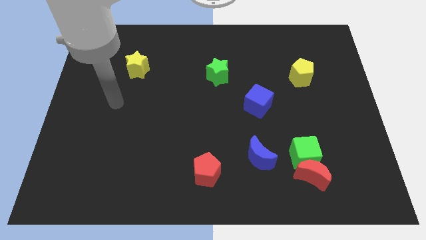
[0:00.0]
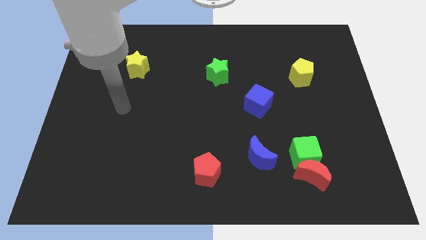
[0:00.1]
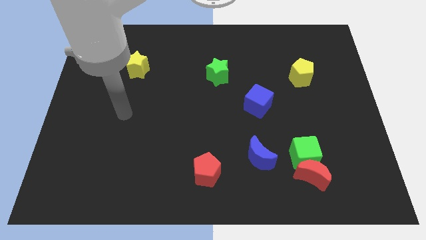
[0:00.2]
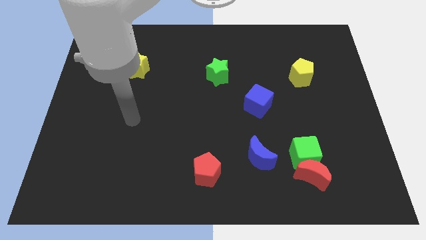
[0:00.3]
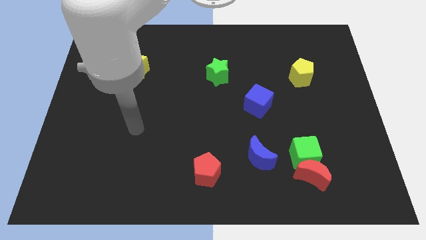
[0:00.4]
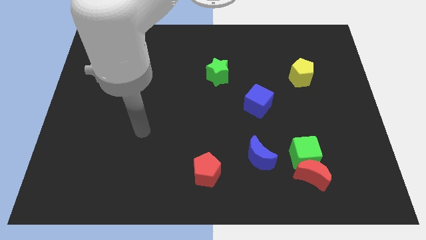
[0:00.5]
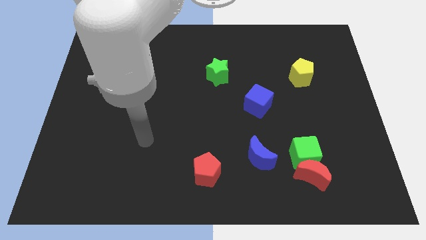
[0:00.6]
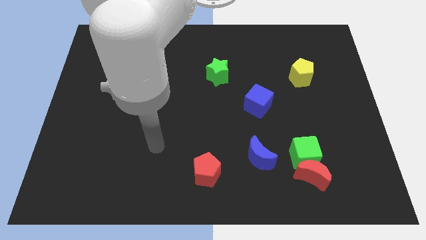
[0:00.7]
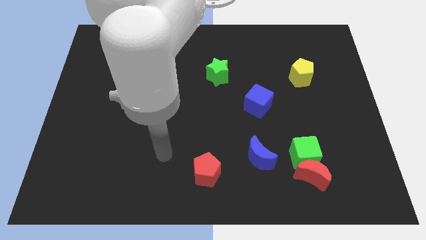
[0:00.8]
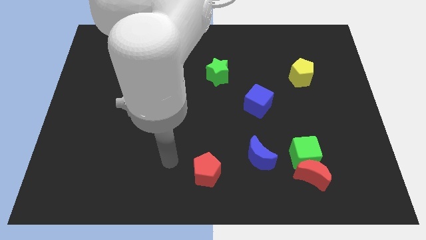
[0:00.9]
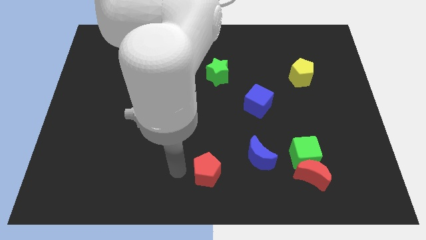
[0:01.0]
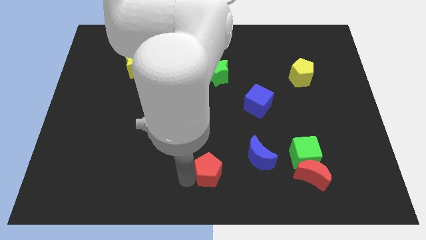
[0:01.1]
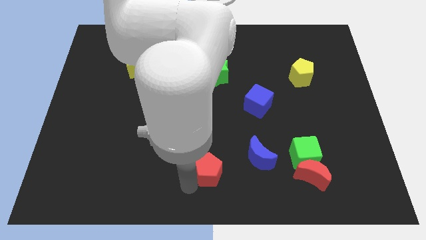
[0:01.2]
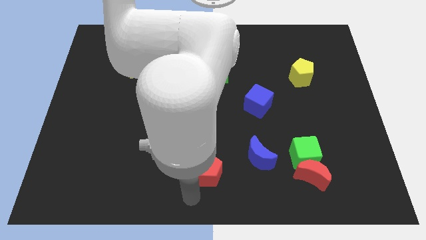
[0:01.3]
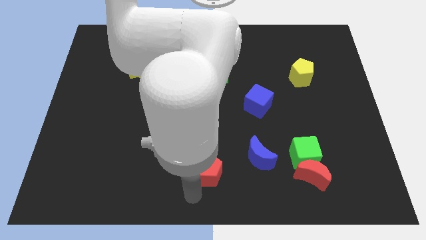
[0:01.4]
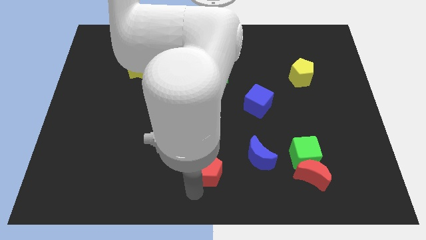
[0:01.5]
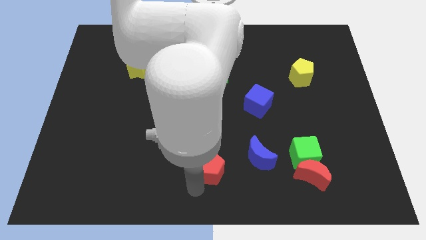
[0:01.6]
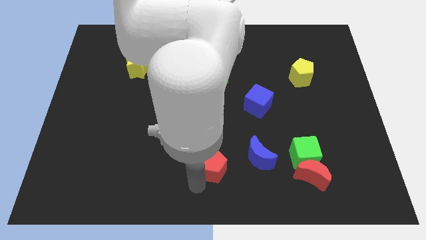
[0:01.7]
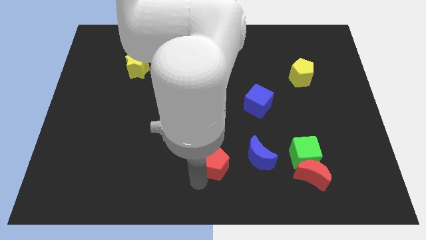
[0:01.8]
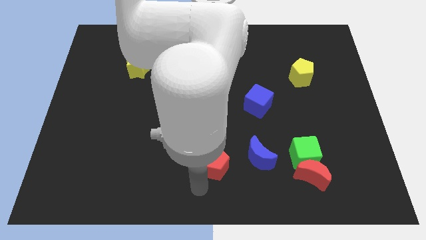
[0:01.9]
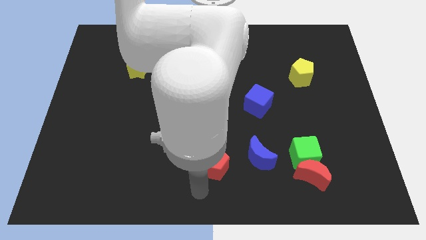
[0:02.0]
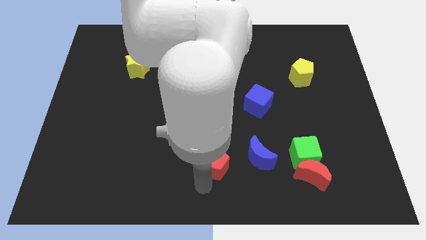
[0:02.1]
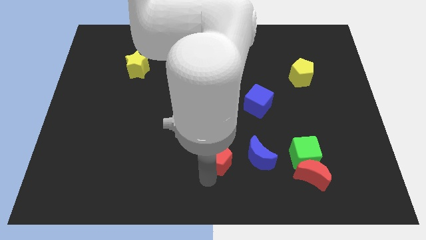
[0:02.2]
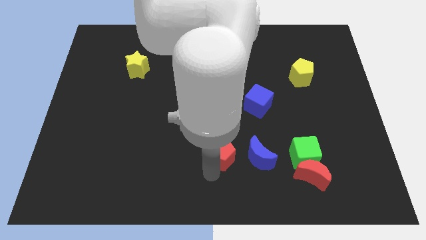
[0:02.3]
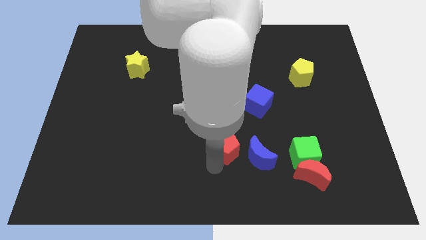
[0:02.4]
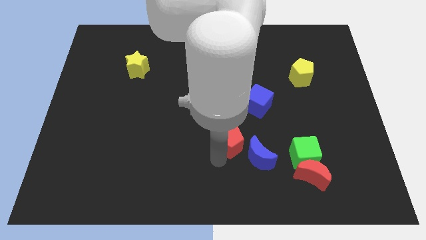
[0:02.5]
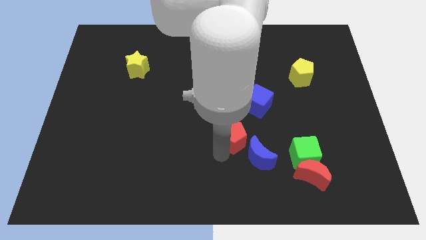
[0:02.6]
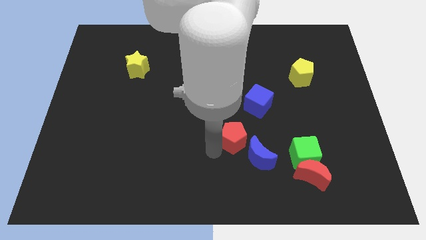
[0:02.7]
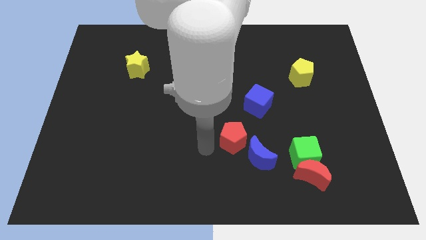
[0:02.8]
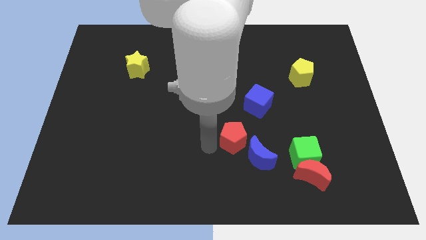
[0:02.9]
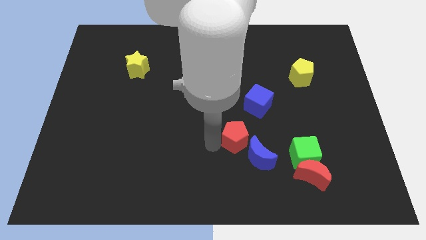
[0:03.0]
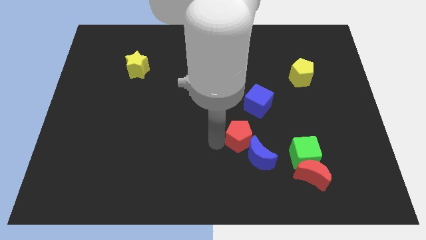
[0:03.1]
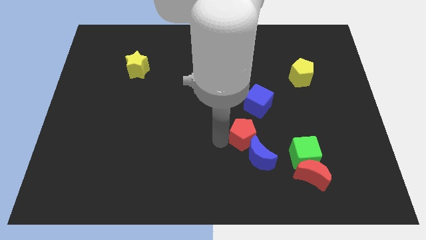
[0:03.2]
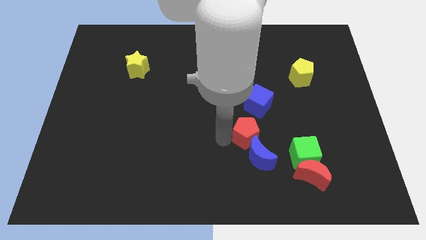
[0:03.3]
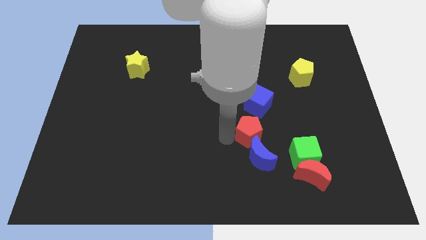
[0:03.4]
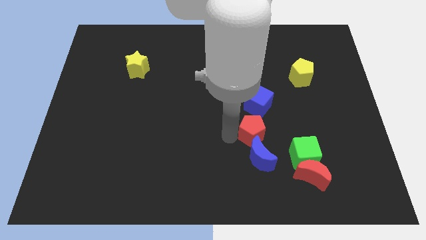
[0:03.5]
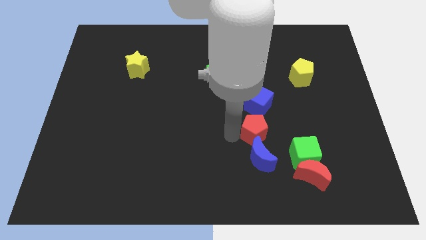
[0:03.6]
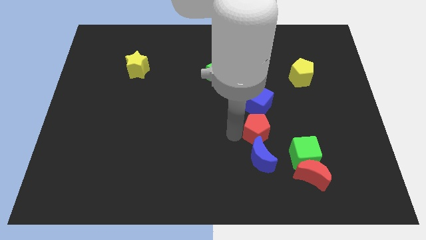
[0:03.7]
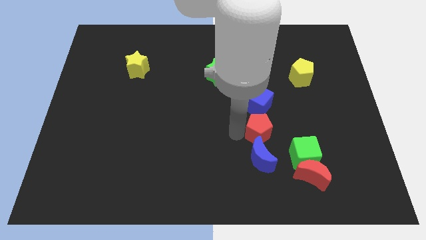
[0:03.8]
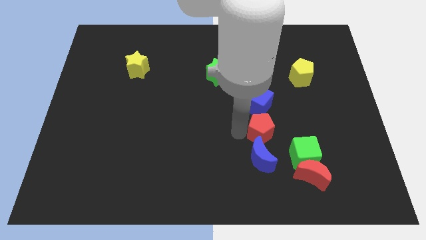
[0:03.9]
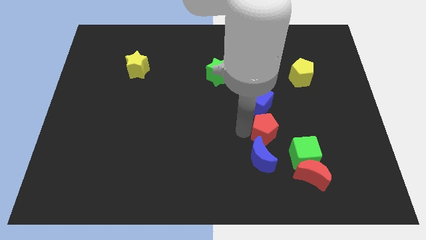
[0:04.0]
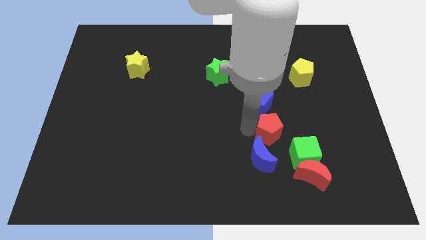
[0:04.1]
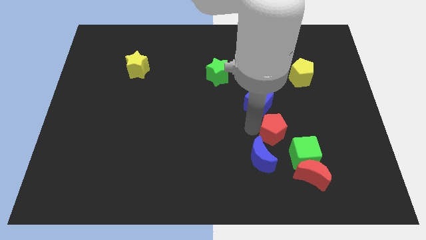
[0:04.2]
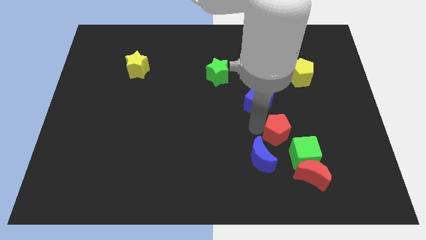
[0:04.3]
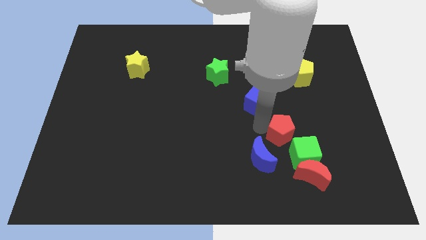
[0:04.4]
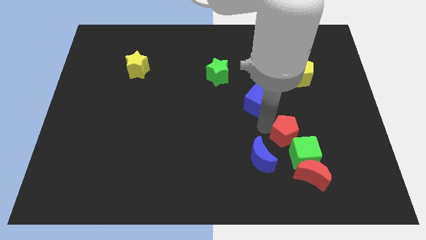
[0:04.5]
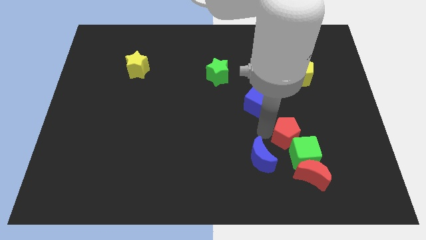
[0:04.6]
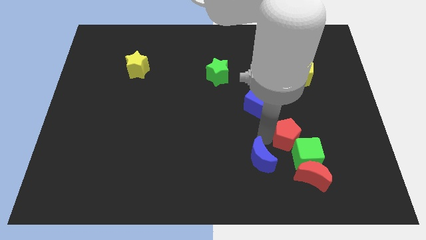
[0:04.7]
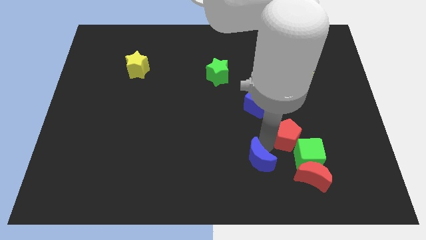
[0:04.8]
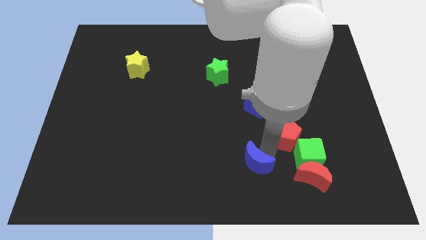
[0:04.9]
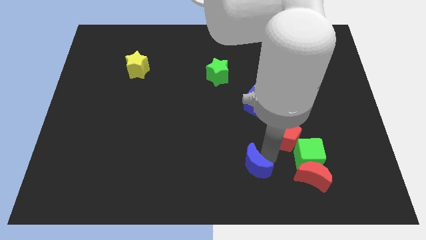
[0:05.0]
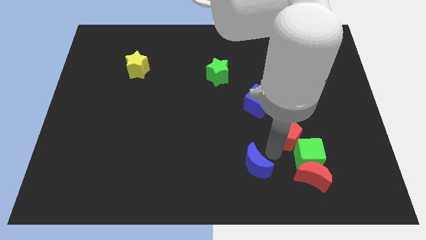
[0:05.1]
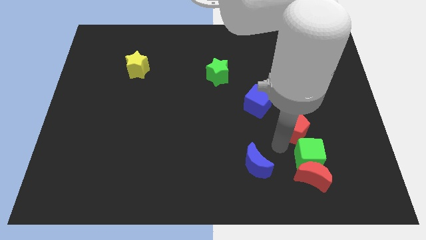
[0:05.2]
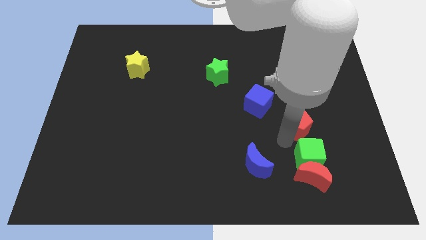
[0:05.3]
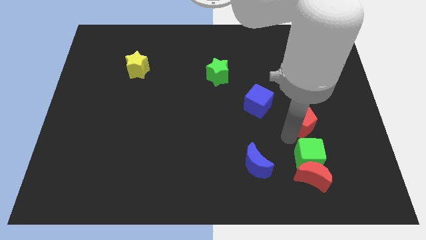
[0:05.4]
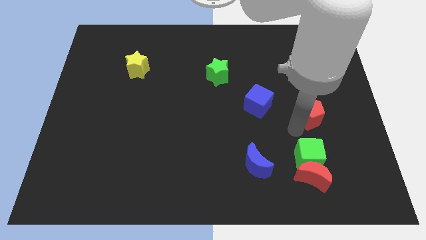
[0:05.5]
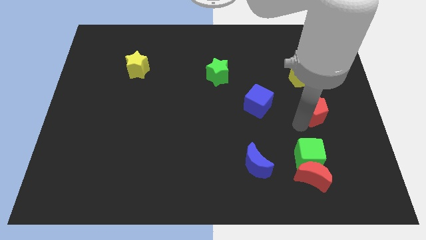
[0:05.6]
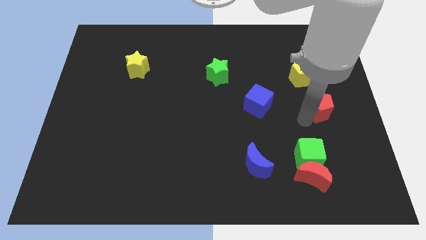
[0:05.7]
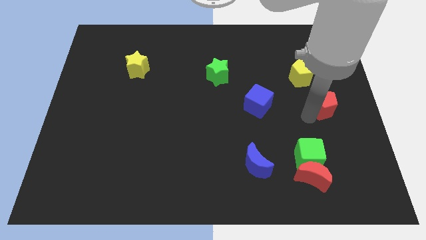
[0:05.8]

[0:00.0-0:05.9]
move the red pentagon to the right side of the board

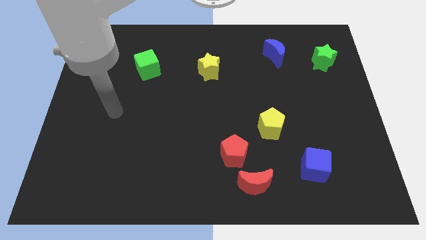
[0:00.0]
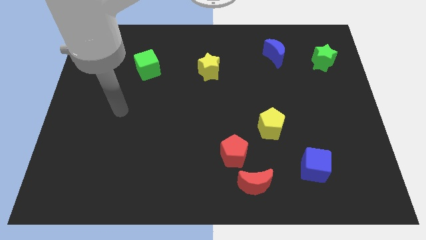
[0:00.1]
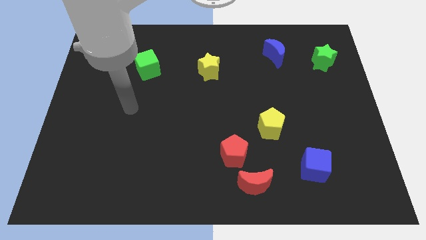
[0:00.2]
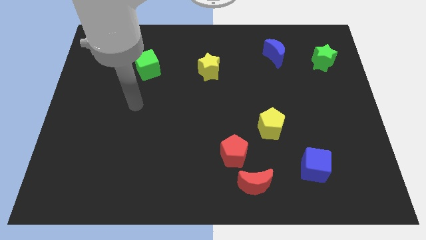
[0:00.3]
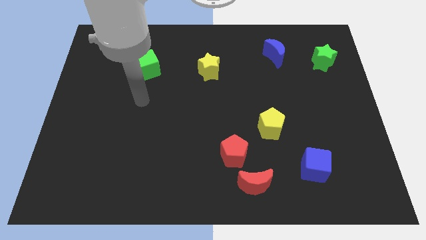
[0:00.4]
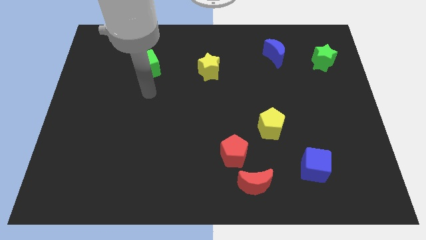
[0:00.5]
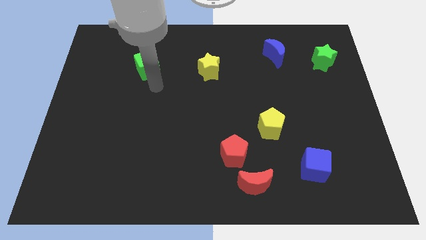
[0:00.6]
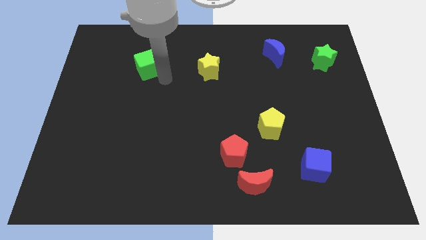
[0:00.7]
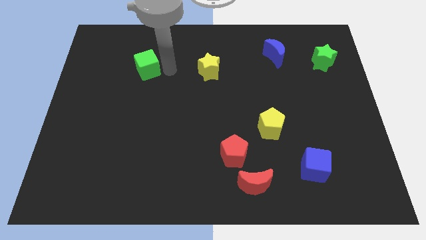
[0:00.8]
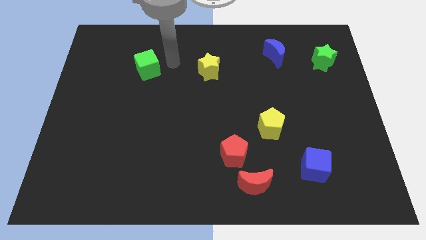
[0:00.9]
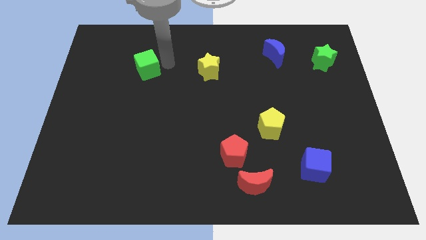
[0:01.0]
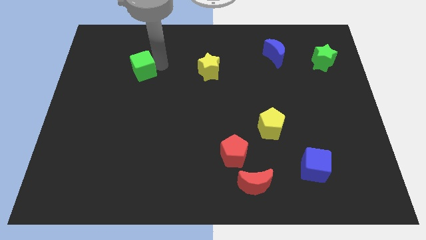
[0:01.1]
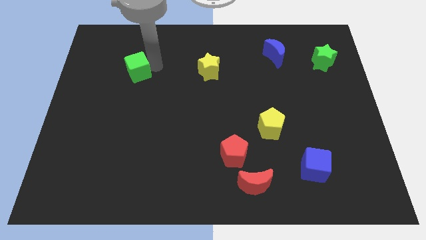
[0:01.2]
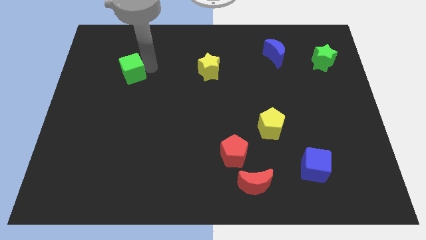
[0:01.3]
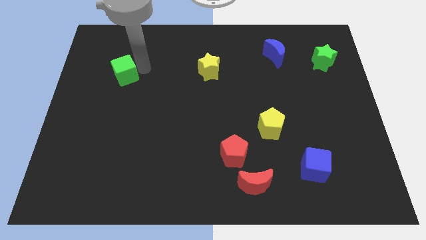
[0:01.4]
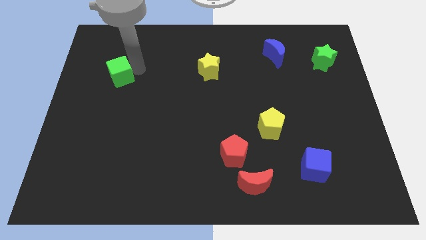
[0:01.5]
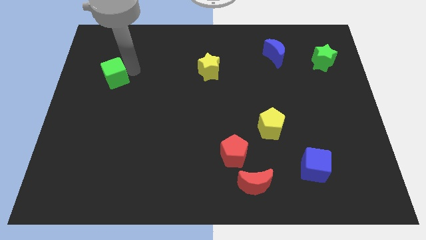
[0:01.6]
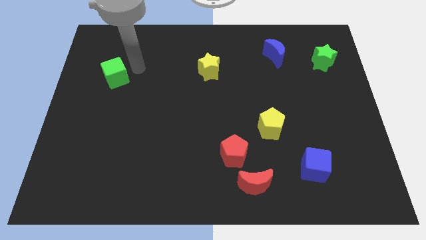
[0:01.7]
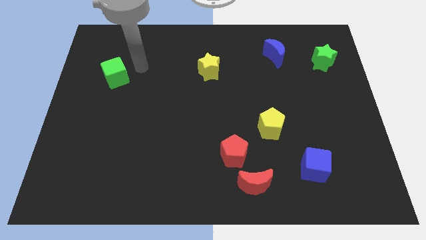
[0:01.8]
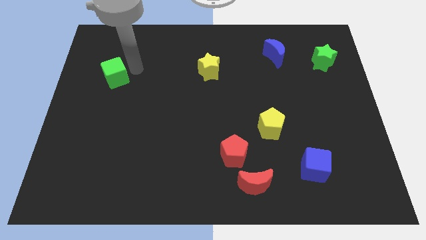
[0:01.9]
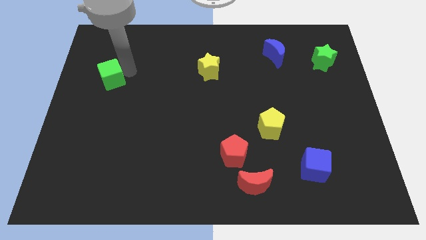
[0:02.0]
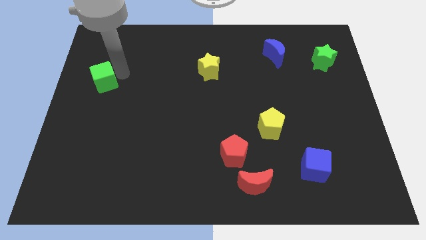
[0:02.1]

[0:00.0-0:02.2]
slide the green cube to the left side of the board
